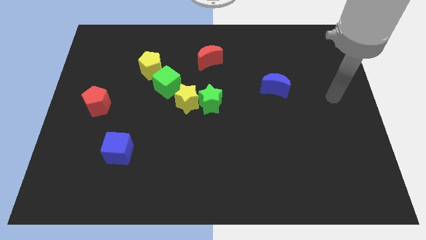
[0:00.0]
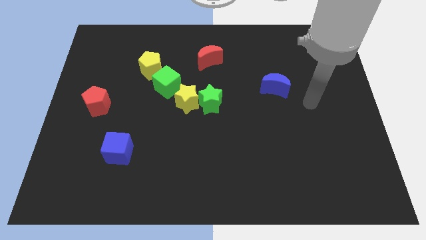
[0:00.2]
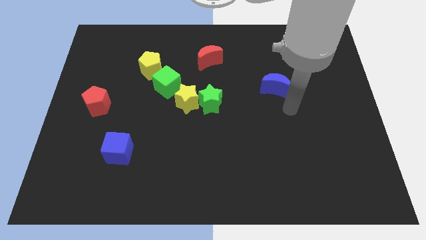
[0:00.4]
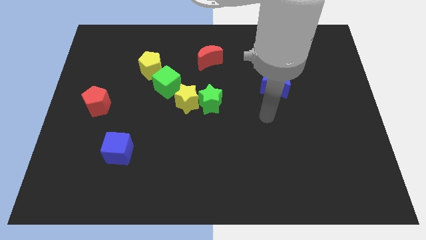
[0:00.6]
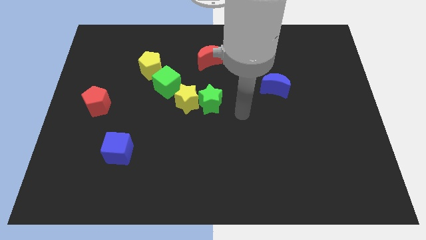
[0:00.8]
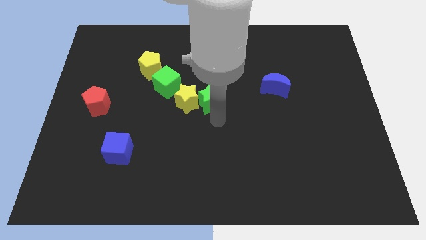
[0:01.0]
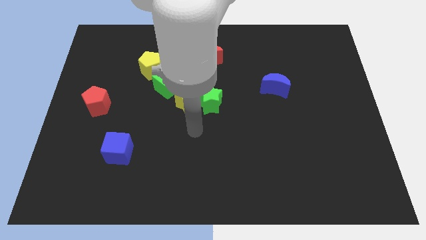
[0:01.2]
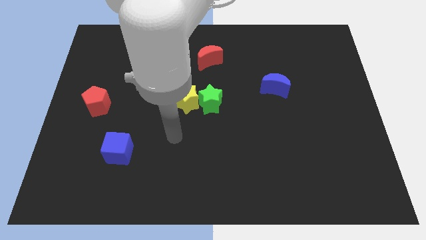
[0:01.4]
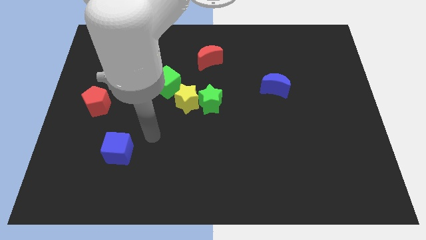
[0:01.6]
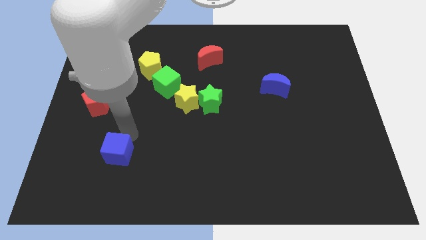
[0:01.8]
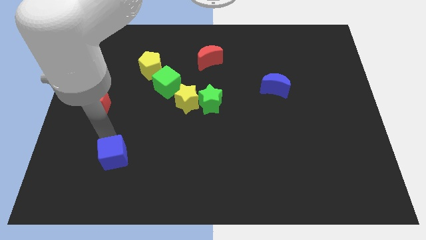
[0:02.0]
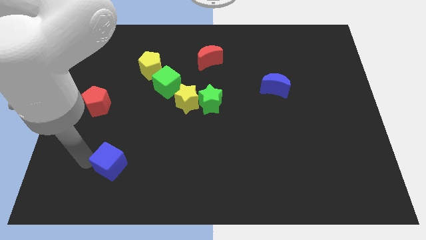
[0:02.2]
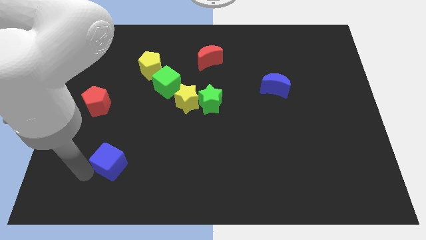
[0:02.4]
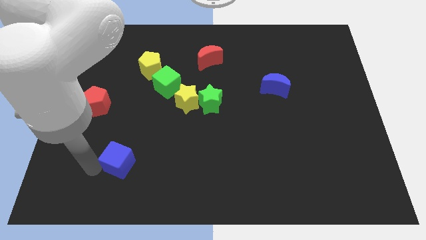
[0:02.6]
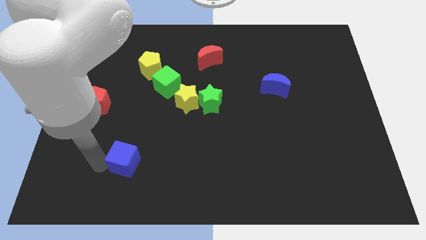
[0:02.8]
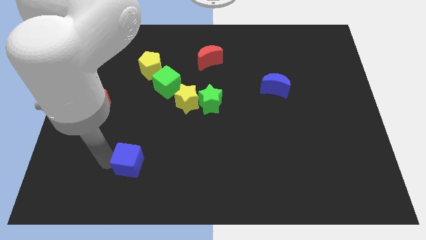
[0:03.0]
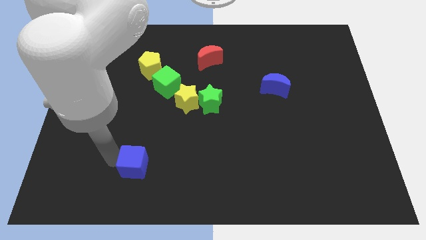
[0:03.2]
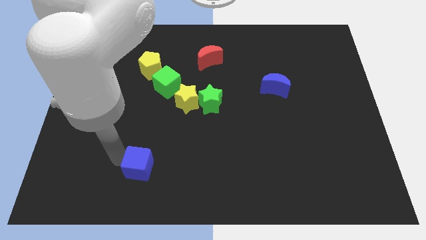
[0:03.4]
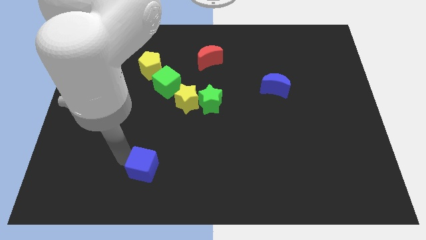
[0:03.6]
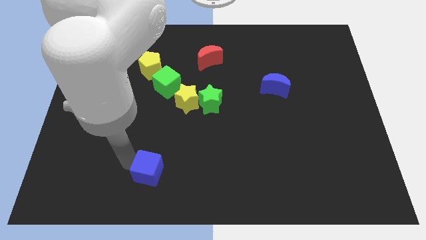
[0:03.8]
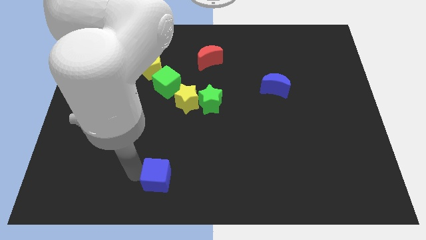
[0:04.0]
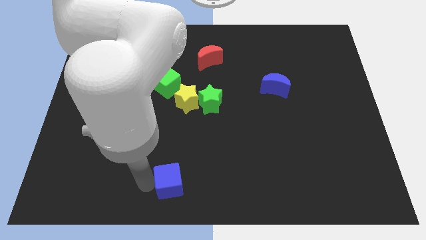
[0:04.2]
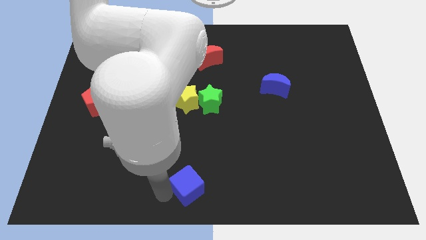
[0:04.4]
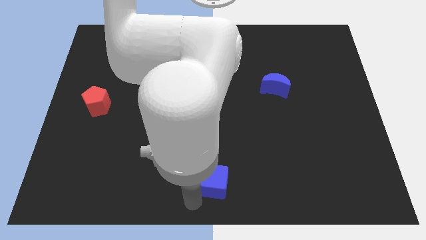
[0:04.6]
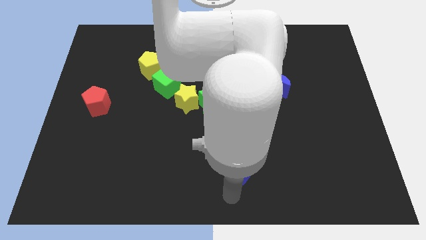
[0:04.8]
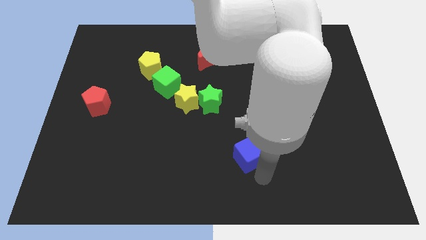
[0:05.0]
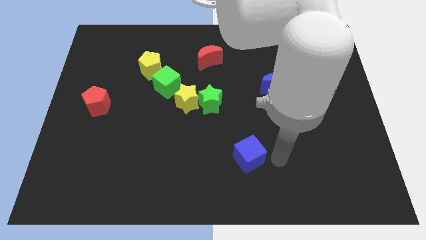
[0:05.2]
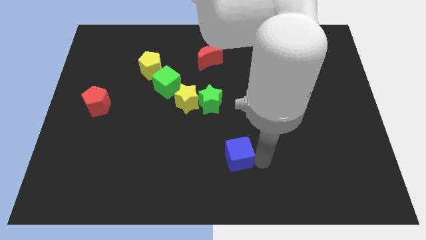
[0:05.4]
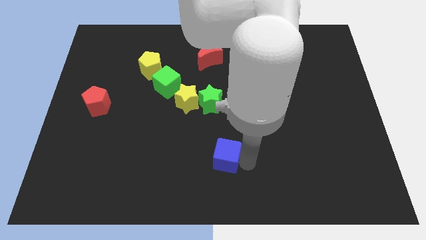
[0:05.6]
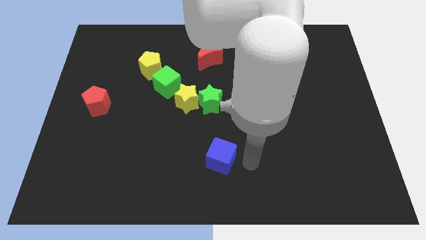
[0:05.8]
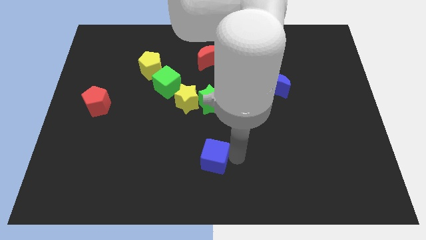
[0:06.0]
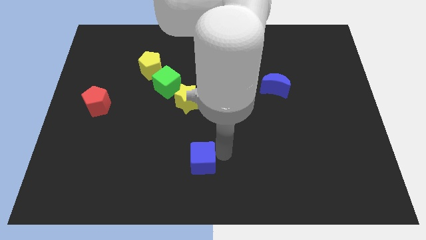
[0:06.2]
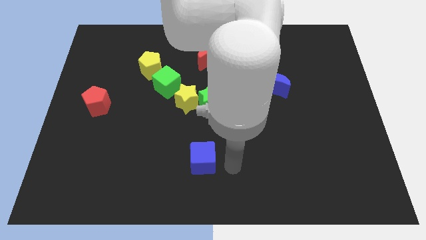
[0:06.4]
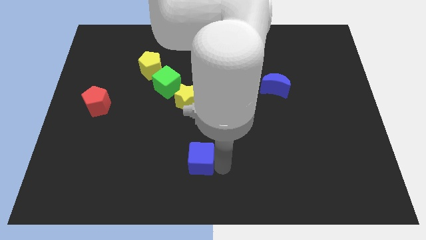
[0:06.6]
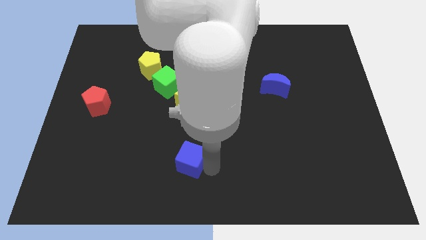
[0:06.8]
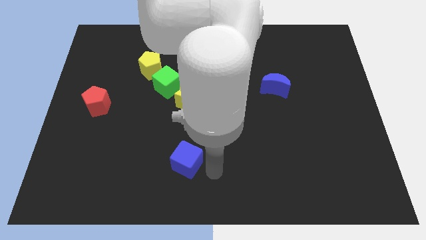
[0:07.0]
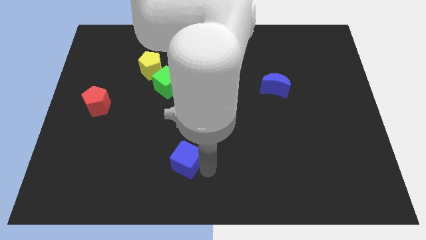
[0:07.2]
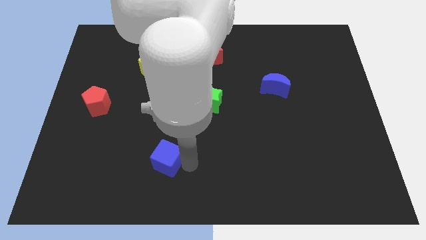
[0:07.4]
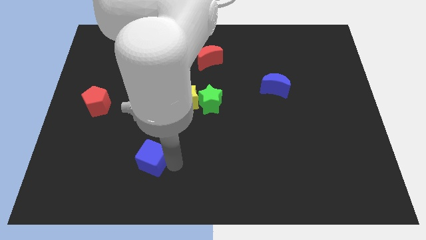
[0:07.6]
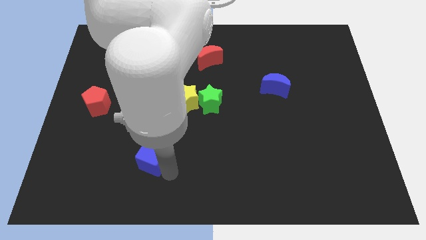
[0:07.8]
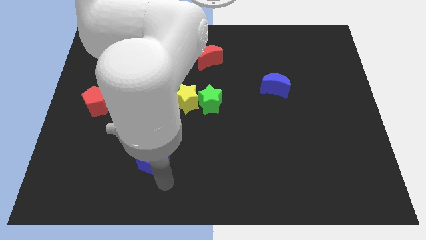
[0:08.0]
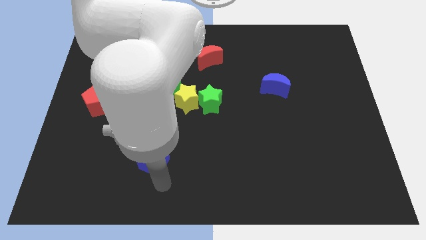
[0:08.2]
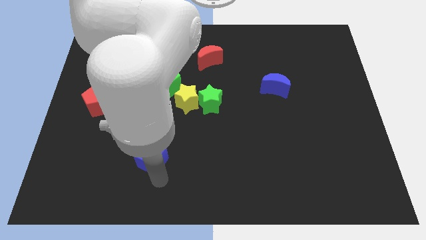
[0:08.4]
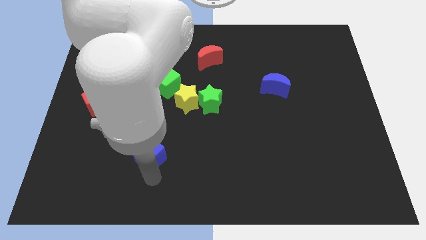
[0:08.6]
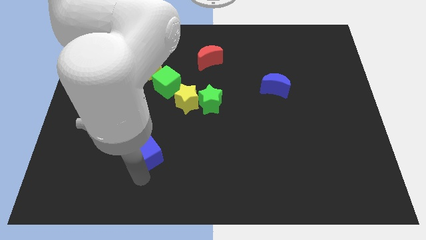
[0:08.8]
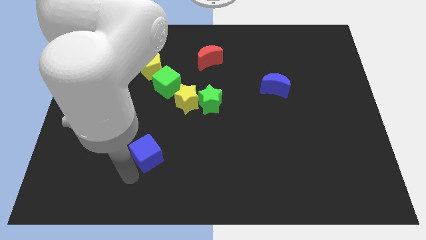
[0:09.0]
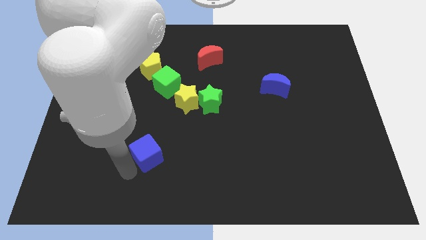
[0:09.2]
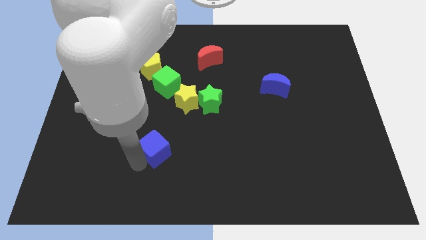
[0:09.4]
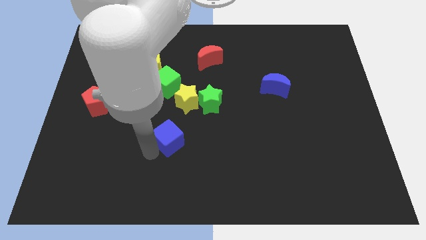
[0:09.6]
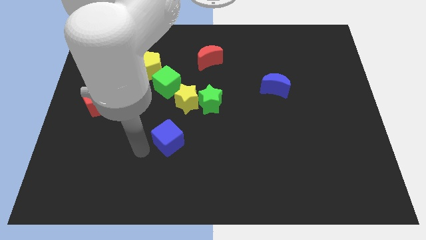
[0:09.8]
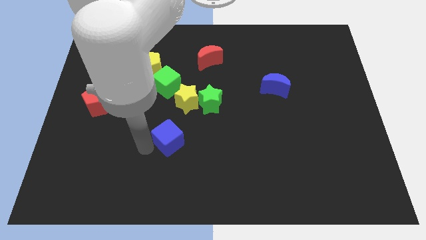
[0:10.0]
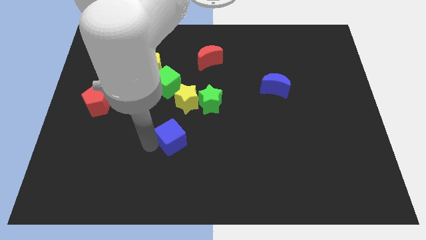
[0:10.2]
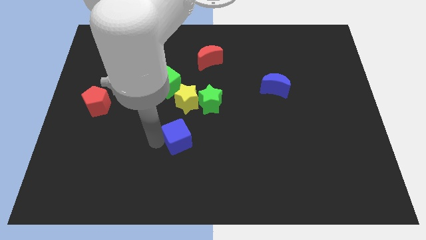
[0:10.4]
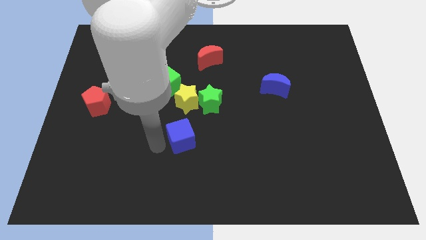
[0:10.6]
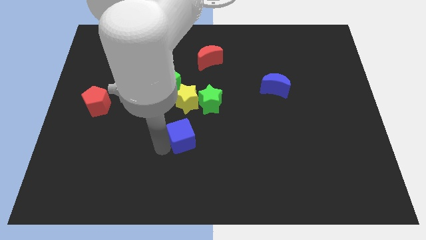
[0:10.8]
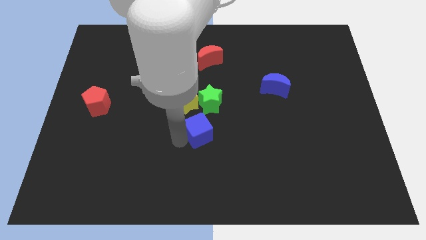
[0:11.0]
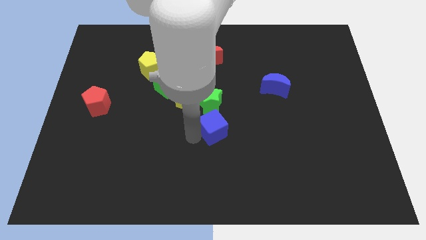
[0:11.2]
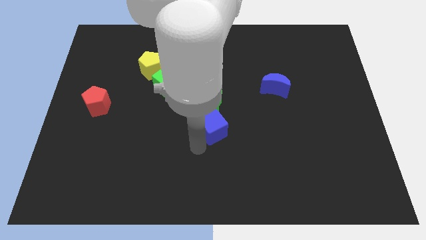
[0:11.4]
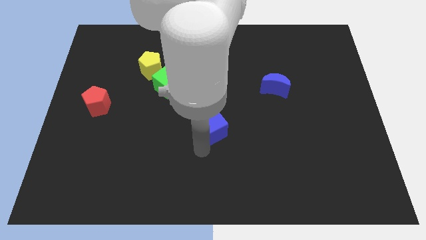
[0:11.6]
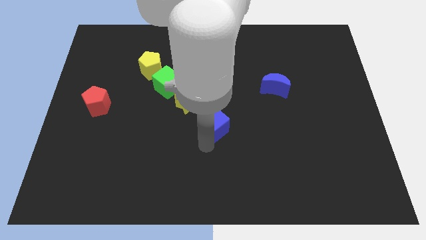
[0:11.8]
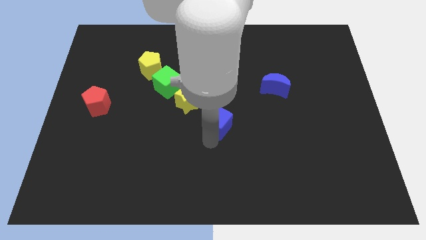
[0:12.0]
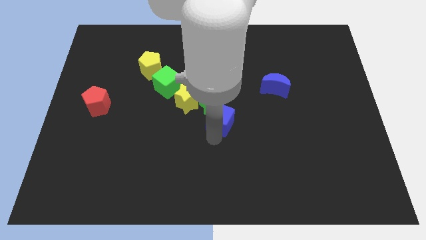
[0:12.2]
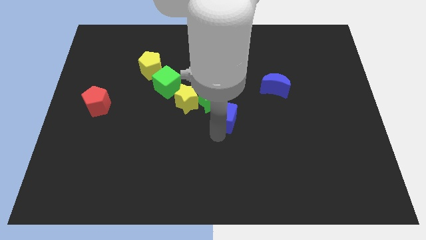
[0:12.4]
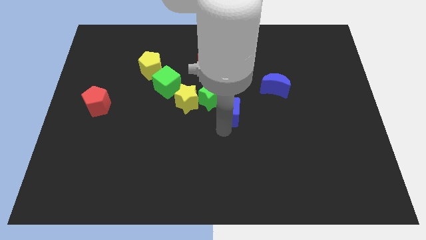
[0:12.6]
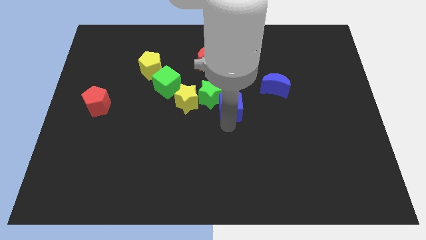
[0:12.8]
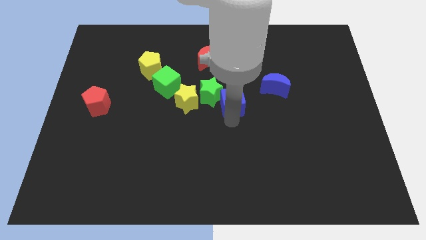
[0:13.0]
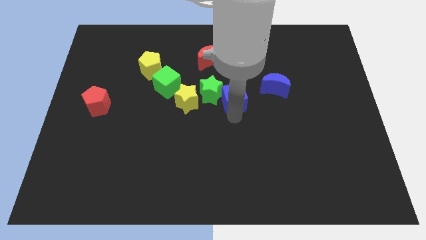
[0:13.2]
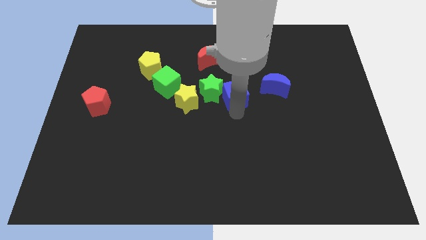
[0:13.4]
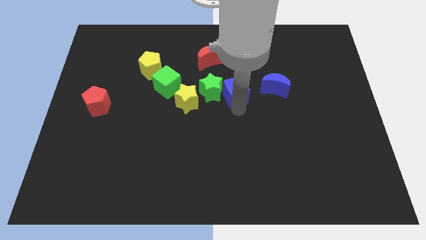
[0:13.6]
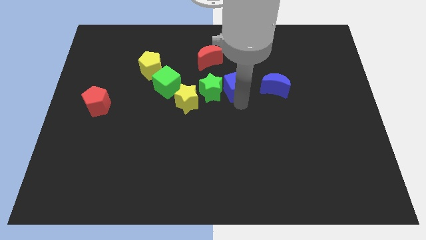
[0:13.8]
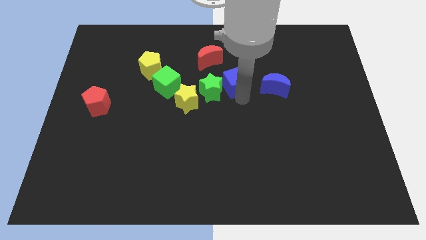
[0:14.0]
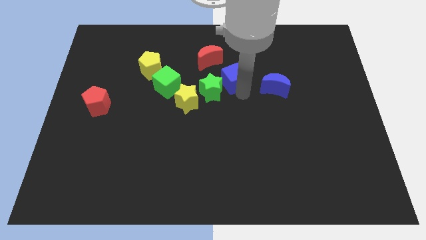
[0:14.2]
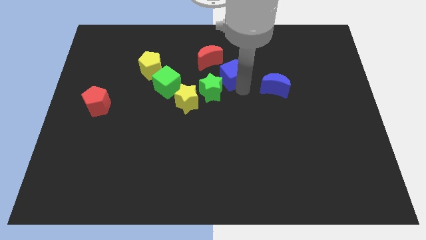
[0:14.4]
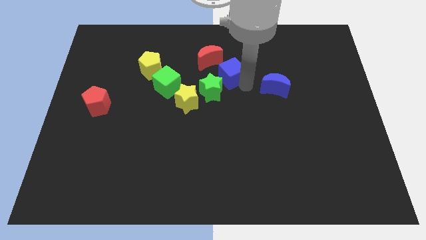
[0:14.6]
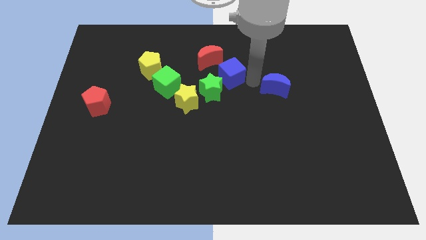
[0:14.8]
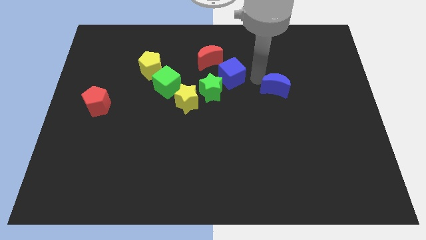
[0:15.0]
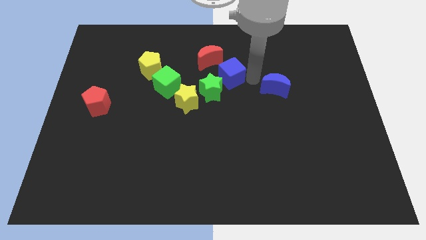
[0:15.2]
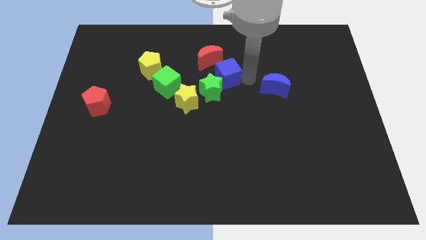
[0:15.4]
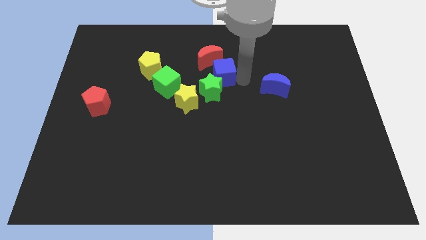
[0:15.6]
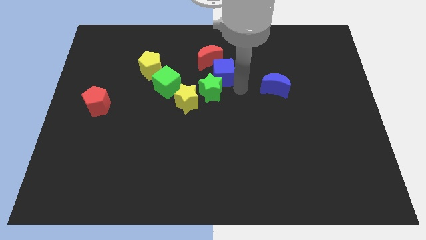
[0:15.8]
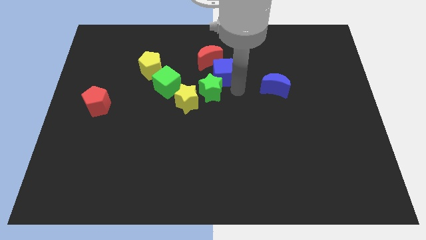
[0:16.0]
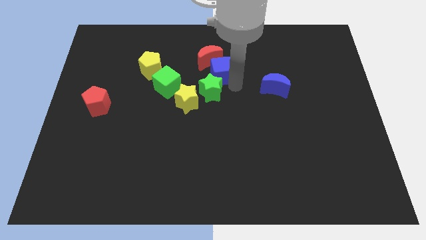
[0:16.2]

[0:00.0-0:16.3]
push the blue cube close to the red moon
